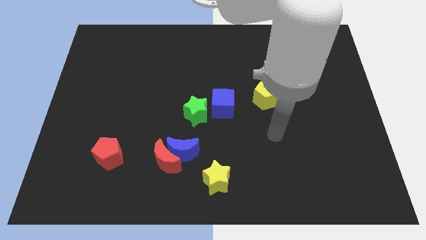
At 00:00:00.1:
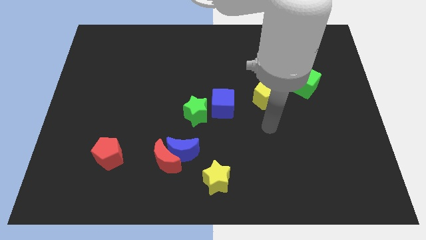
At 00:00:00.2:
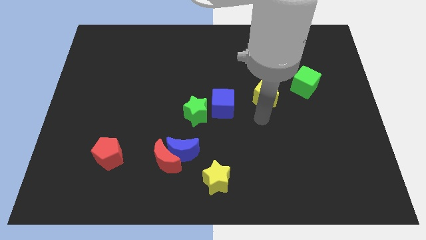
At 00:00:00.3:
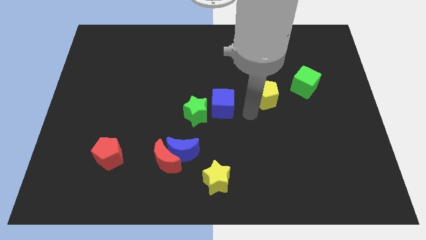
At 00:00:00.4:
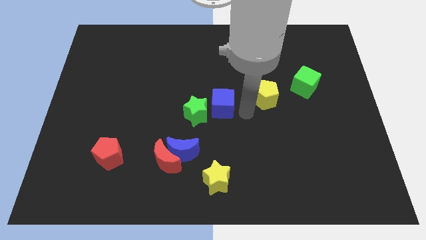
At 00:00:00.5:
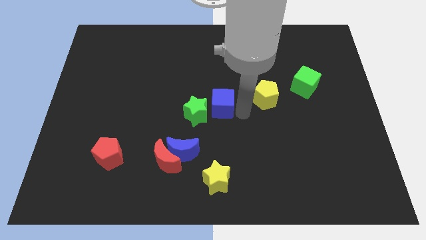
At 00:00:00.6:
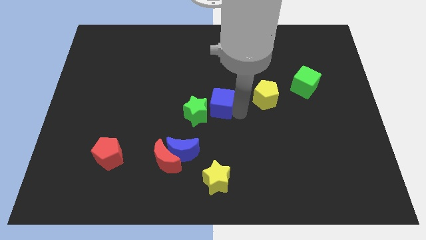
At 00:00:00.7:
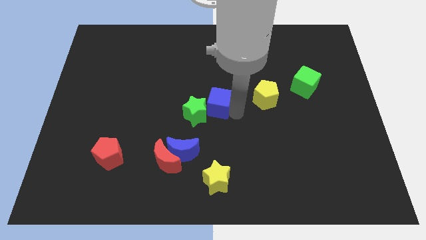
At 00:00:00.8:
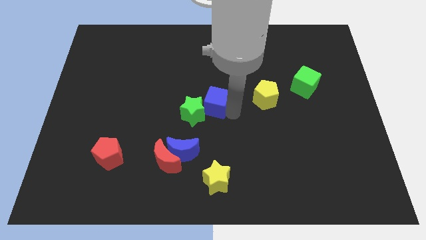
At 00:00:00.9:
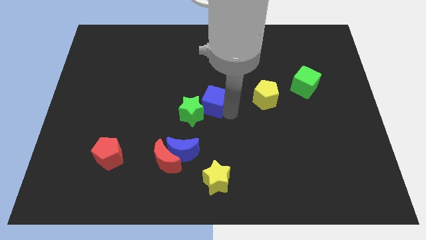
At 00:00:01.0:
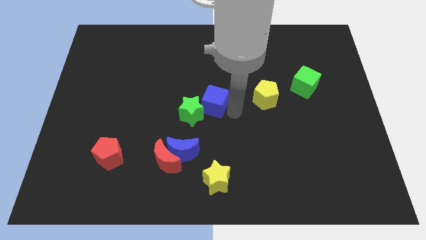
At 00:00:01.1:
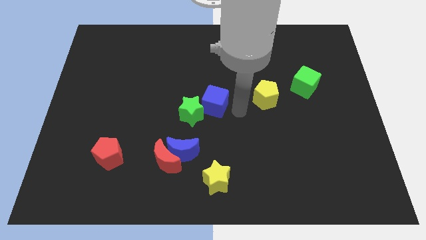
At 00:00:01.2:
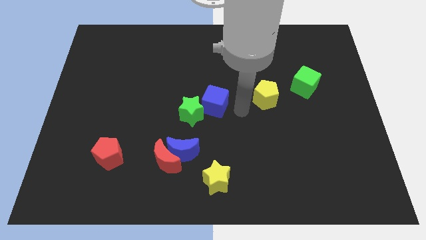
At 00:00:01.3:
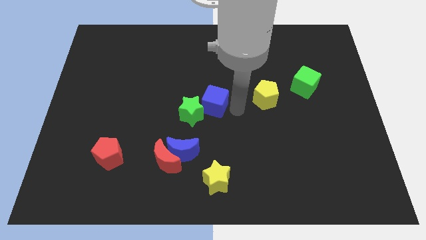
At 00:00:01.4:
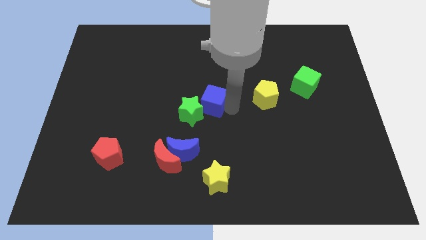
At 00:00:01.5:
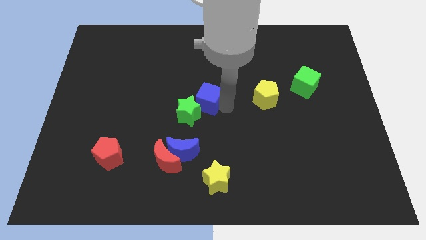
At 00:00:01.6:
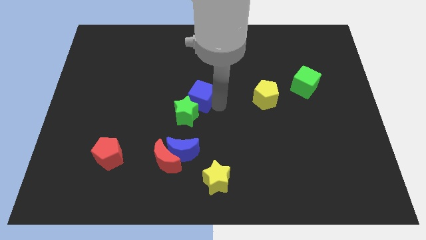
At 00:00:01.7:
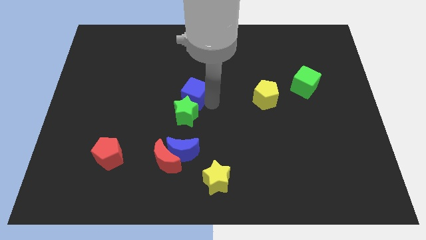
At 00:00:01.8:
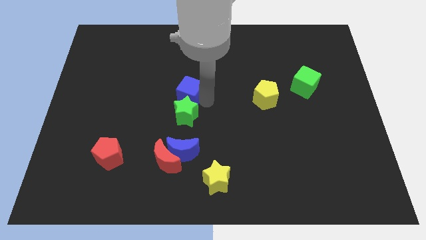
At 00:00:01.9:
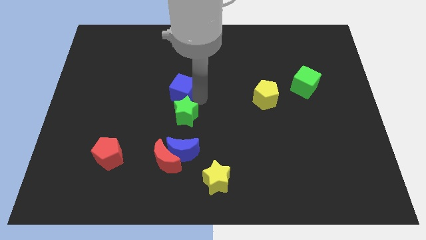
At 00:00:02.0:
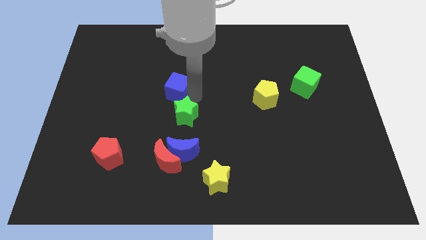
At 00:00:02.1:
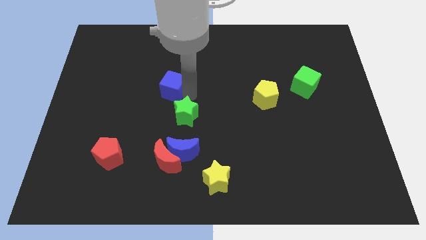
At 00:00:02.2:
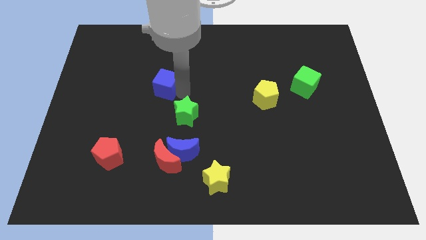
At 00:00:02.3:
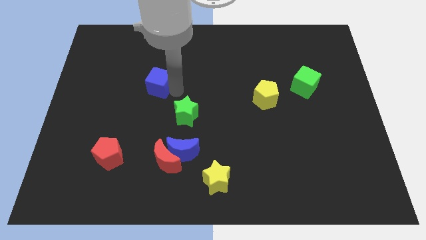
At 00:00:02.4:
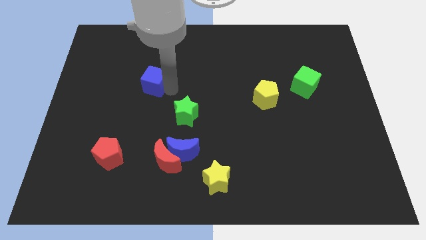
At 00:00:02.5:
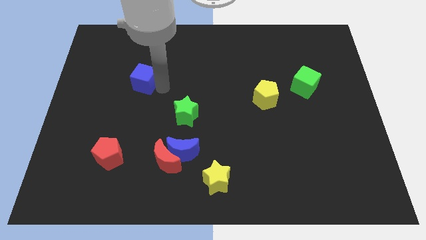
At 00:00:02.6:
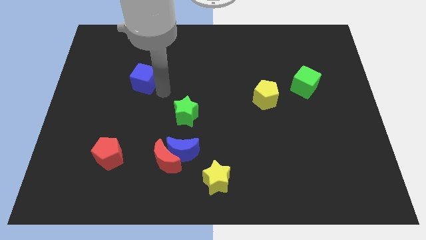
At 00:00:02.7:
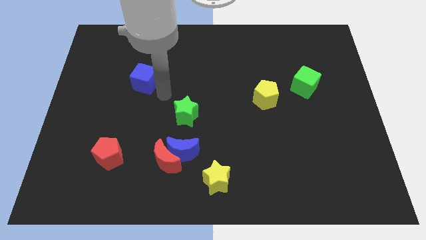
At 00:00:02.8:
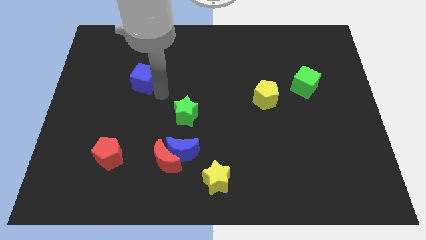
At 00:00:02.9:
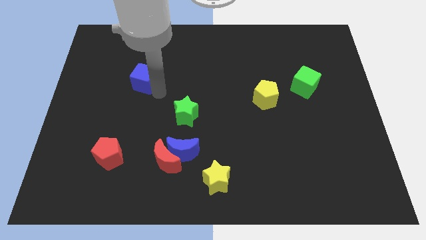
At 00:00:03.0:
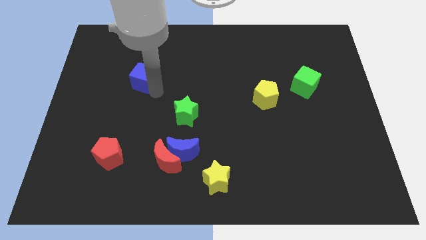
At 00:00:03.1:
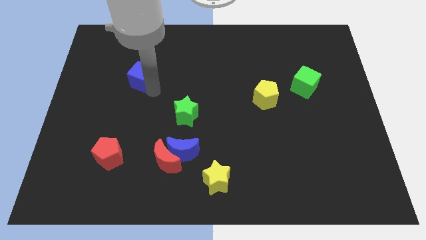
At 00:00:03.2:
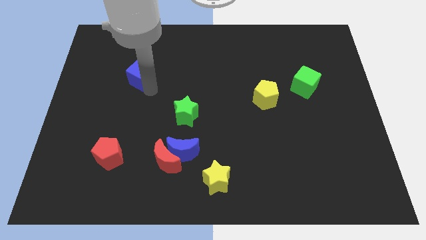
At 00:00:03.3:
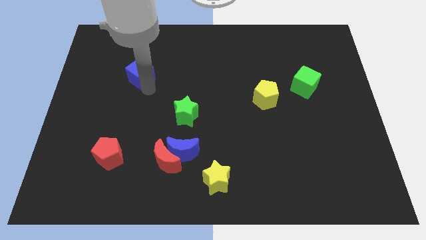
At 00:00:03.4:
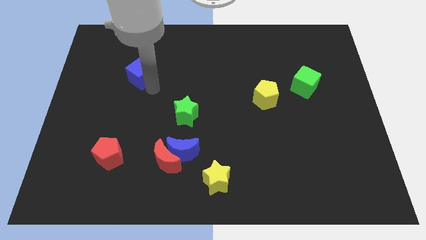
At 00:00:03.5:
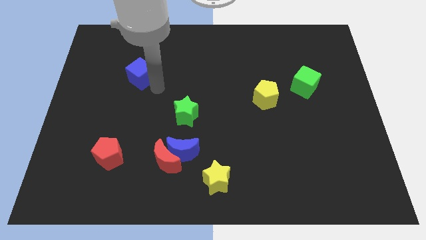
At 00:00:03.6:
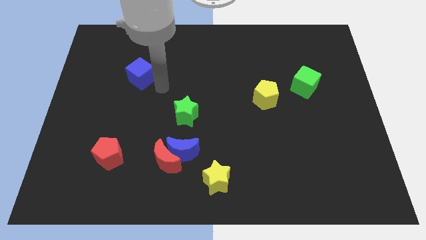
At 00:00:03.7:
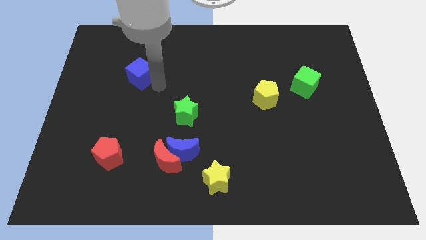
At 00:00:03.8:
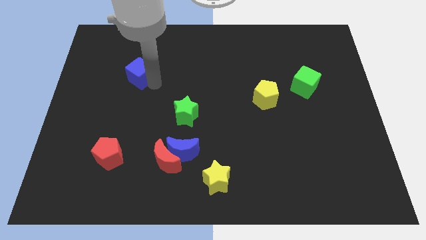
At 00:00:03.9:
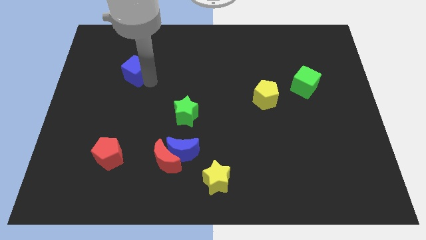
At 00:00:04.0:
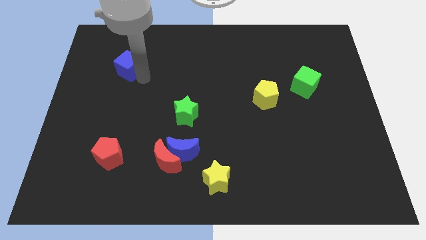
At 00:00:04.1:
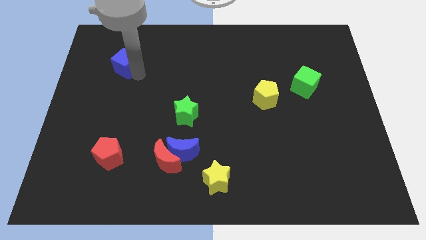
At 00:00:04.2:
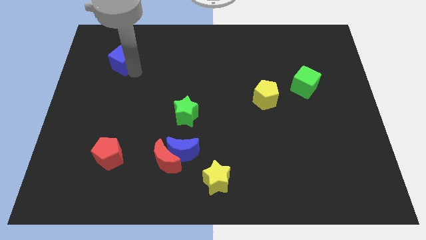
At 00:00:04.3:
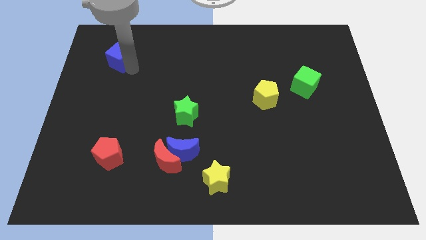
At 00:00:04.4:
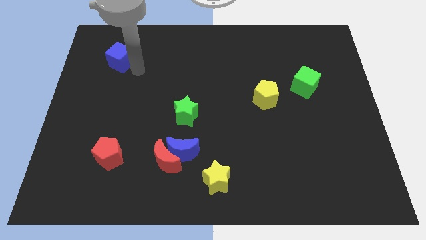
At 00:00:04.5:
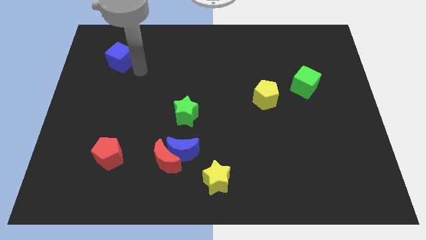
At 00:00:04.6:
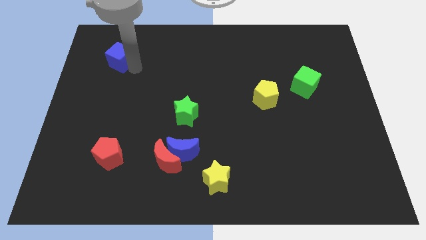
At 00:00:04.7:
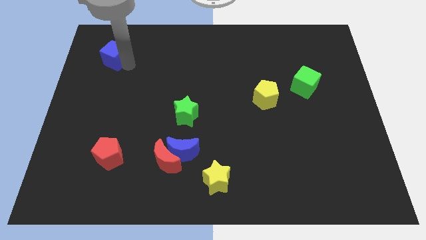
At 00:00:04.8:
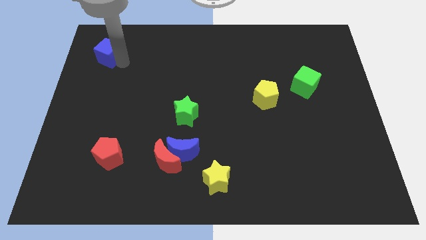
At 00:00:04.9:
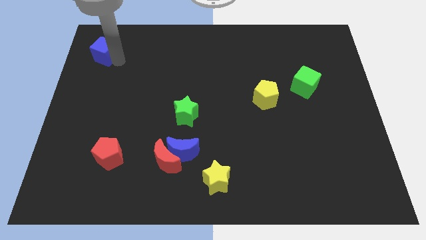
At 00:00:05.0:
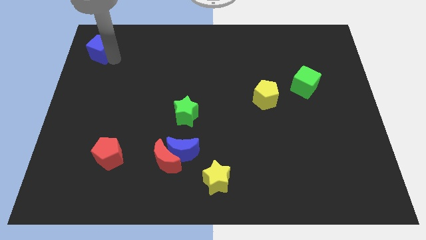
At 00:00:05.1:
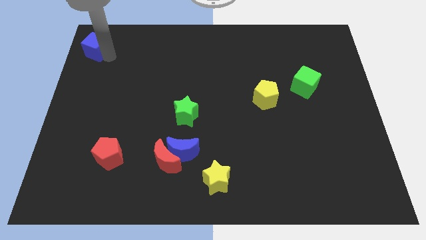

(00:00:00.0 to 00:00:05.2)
push the blue cube to the top left

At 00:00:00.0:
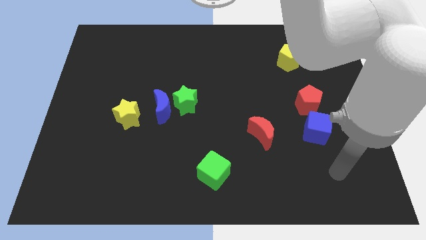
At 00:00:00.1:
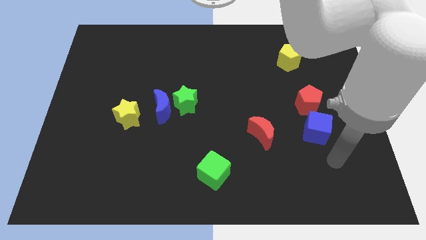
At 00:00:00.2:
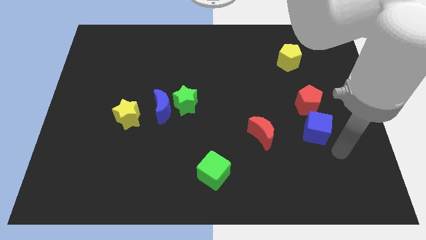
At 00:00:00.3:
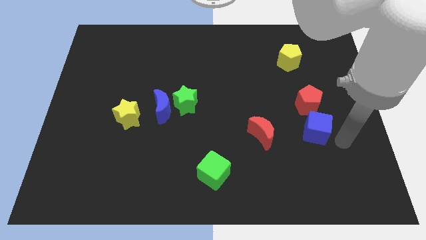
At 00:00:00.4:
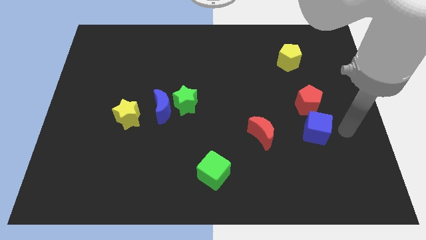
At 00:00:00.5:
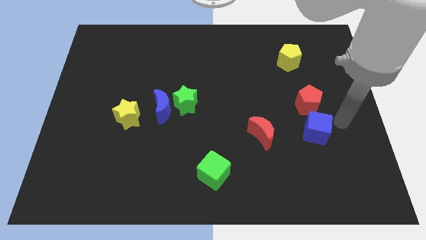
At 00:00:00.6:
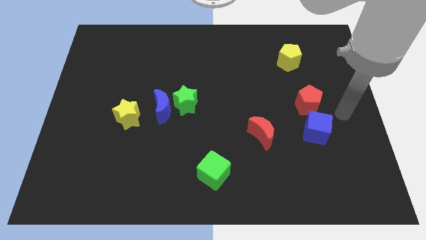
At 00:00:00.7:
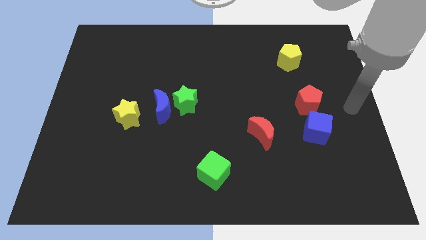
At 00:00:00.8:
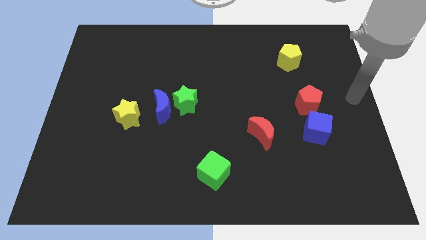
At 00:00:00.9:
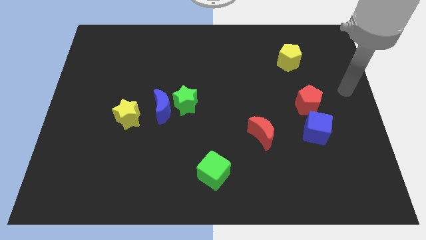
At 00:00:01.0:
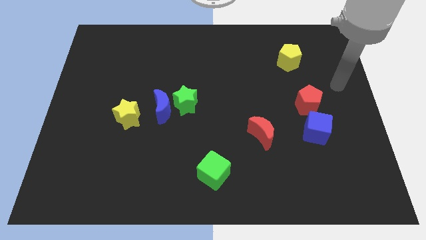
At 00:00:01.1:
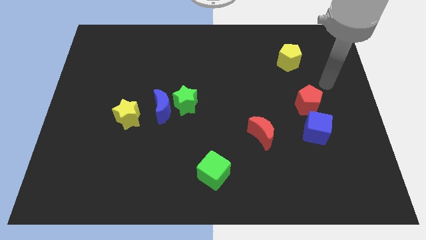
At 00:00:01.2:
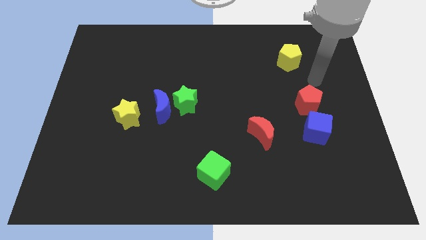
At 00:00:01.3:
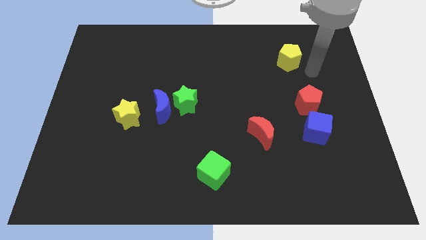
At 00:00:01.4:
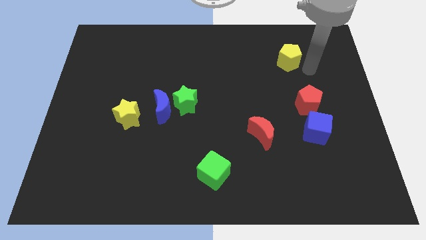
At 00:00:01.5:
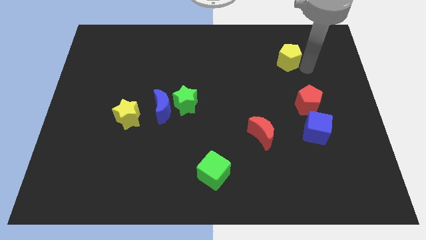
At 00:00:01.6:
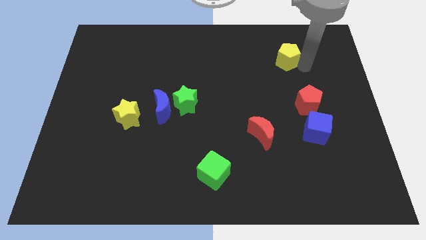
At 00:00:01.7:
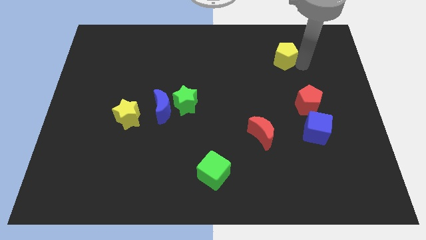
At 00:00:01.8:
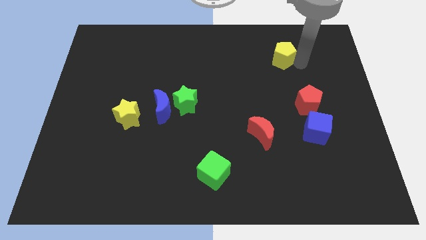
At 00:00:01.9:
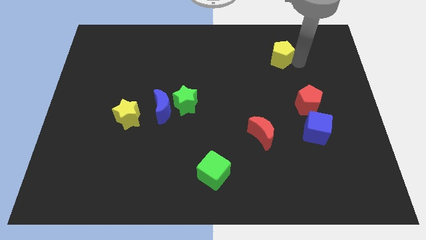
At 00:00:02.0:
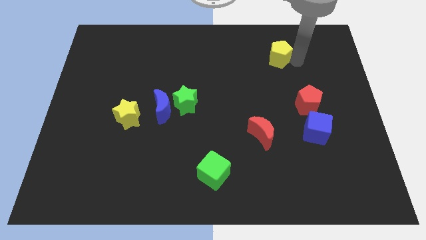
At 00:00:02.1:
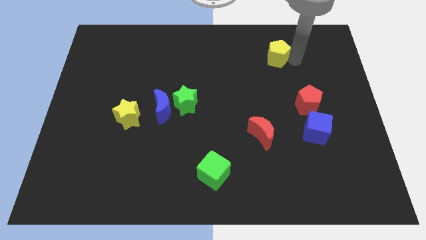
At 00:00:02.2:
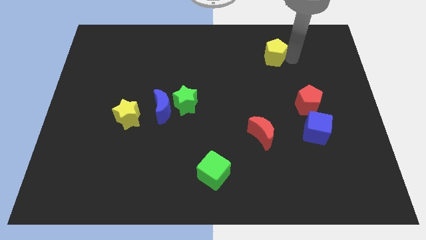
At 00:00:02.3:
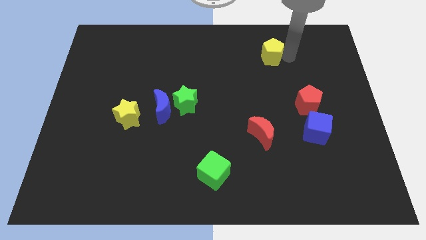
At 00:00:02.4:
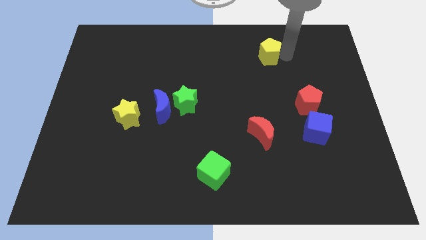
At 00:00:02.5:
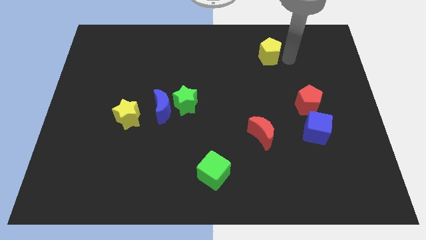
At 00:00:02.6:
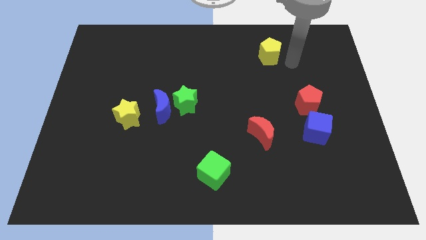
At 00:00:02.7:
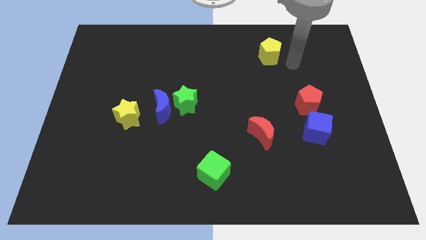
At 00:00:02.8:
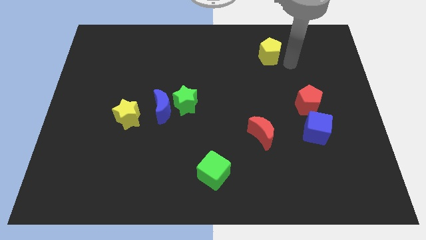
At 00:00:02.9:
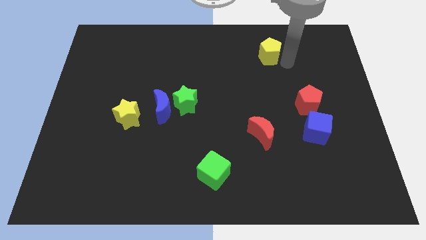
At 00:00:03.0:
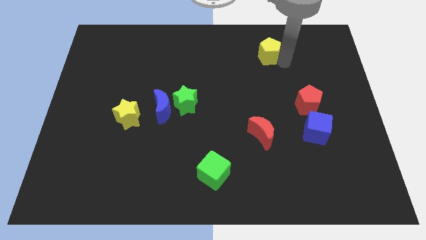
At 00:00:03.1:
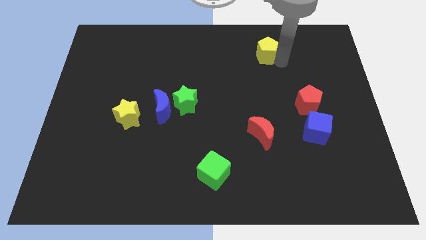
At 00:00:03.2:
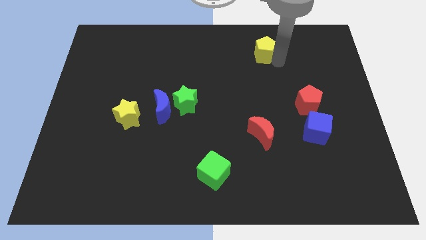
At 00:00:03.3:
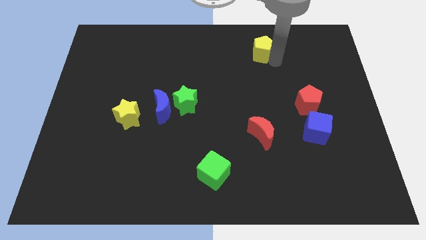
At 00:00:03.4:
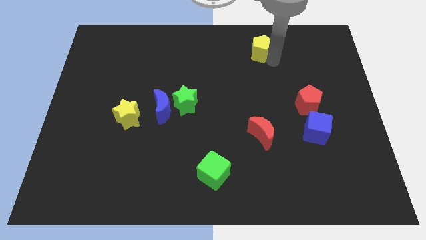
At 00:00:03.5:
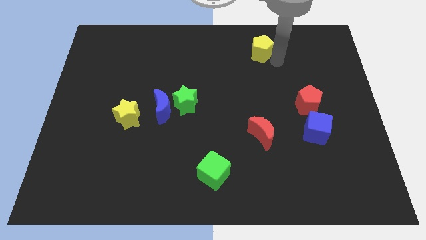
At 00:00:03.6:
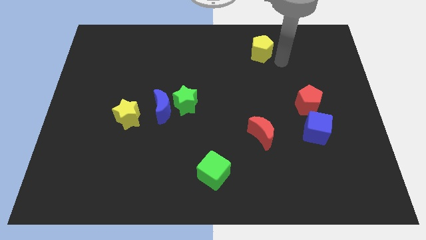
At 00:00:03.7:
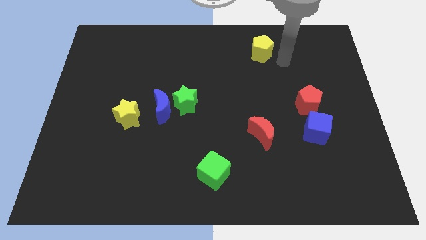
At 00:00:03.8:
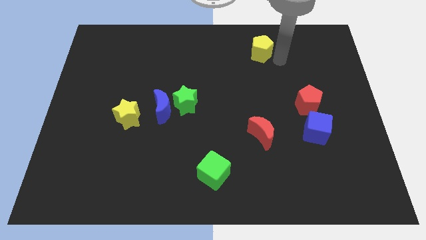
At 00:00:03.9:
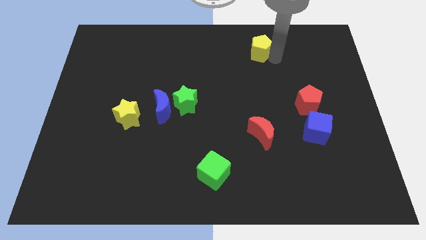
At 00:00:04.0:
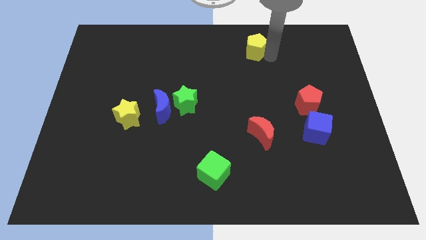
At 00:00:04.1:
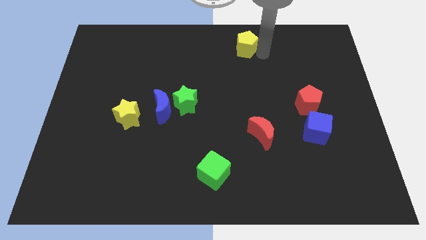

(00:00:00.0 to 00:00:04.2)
move the yellow pentagon to the top
